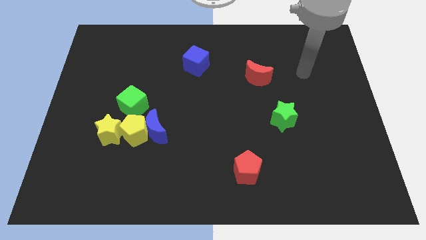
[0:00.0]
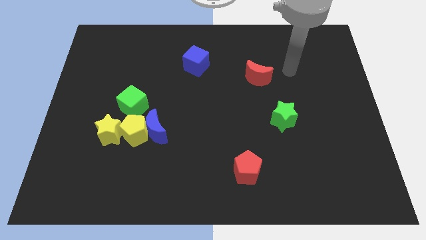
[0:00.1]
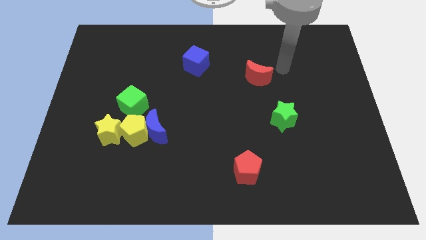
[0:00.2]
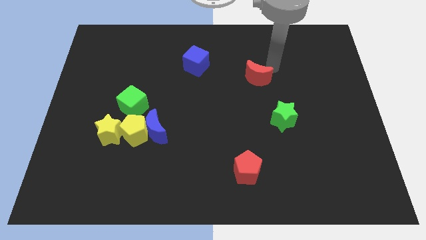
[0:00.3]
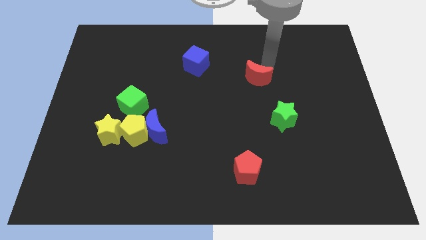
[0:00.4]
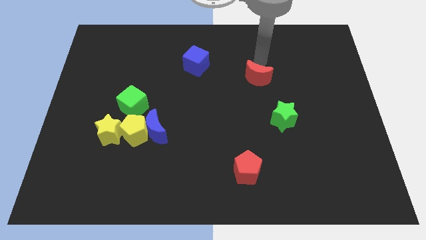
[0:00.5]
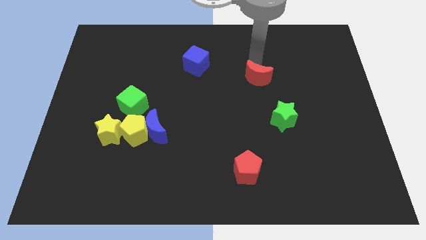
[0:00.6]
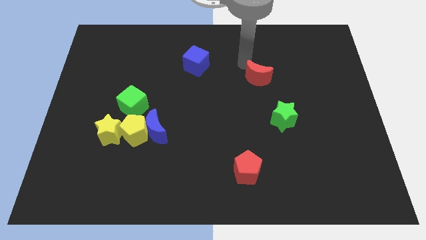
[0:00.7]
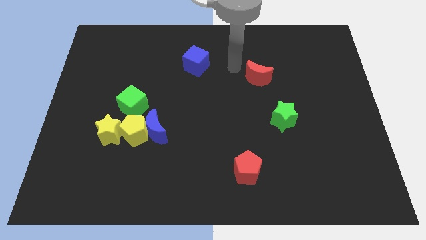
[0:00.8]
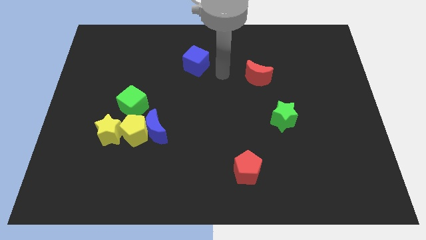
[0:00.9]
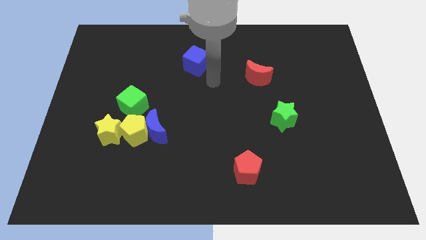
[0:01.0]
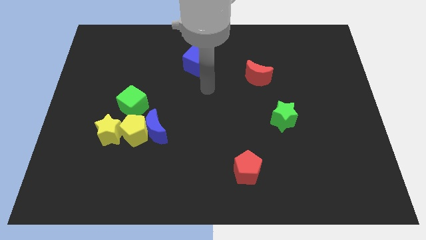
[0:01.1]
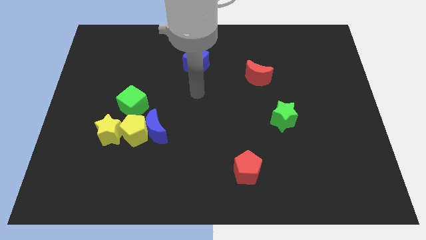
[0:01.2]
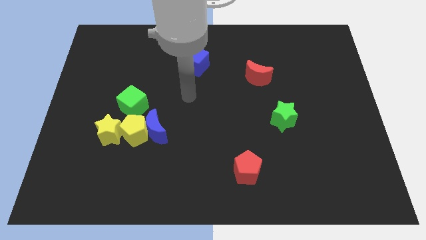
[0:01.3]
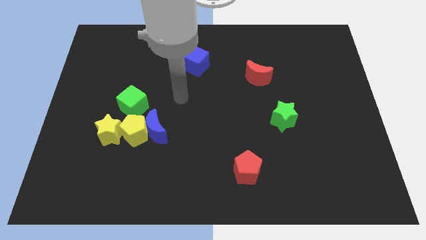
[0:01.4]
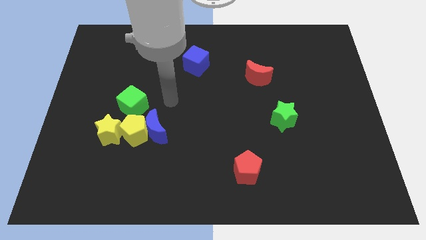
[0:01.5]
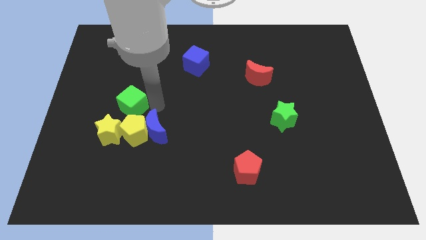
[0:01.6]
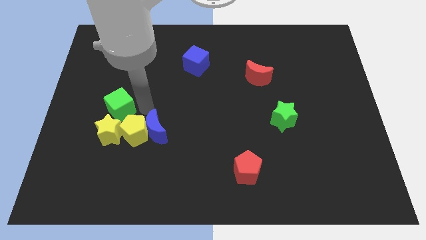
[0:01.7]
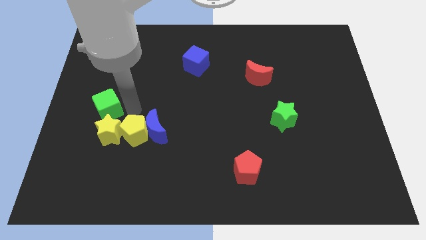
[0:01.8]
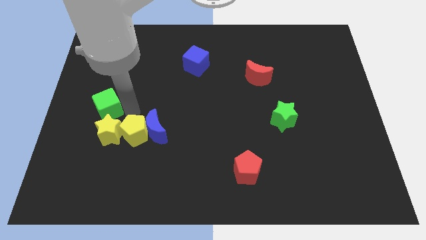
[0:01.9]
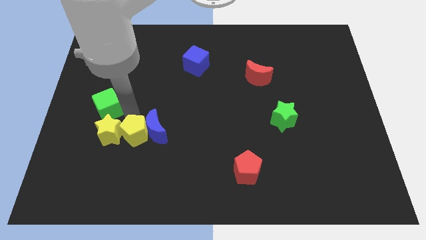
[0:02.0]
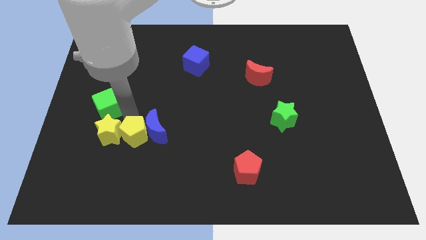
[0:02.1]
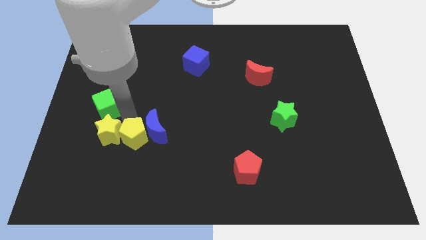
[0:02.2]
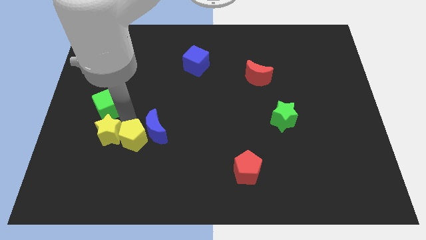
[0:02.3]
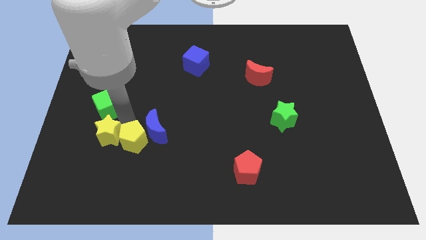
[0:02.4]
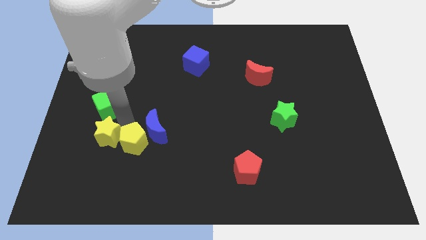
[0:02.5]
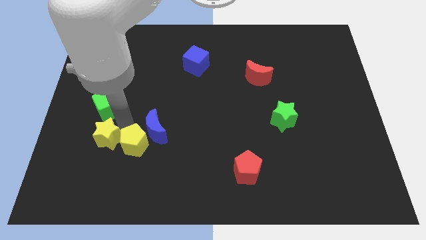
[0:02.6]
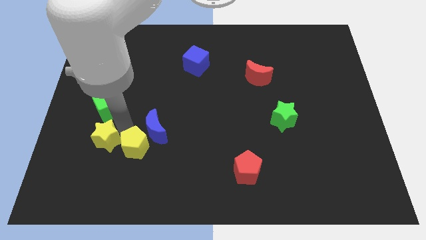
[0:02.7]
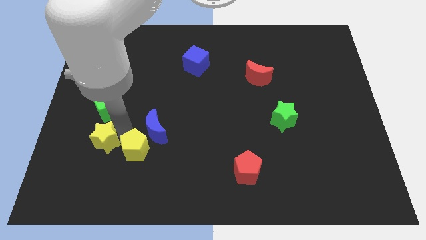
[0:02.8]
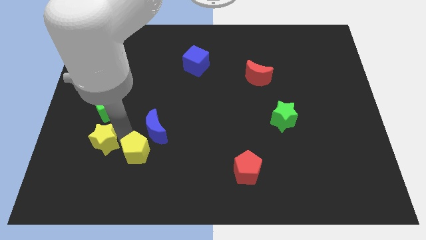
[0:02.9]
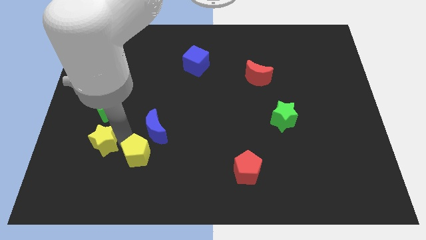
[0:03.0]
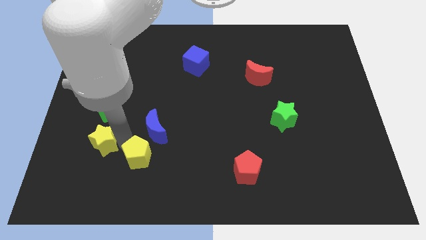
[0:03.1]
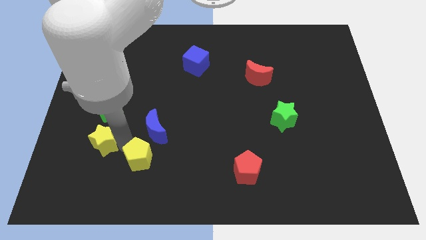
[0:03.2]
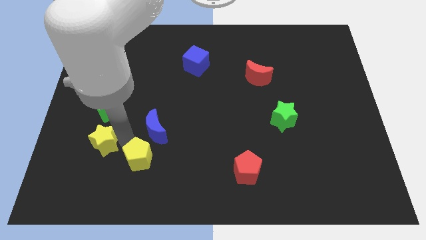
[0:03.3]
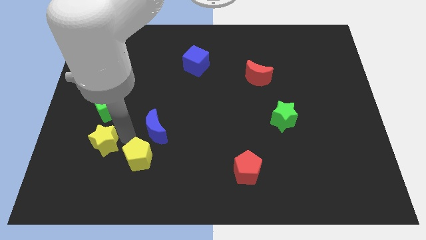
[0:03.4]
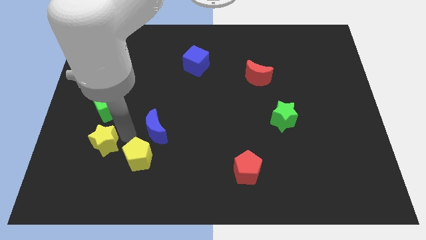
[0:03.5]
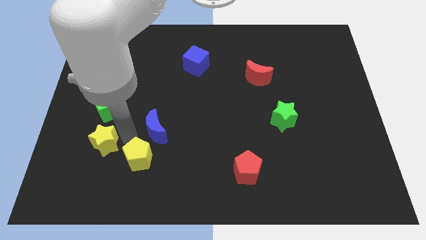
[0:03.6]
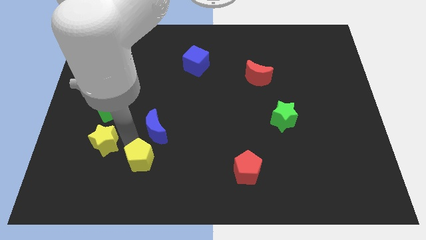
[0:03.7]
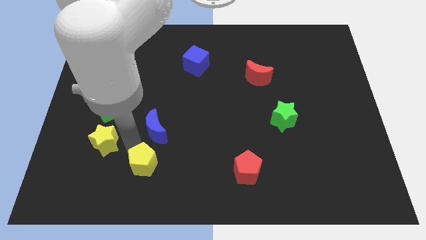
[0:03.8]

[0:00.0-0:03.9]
separate the yellow pentagon from the blue moon, yellow star, and green cube

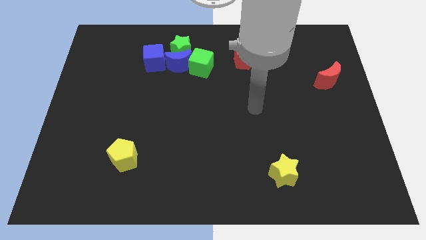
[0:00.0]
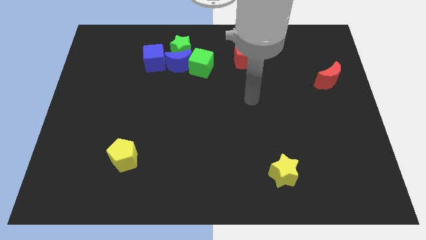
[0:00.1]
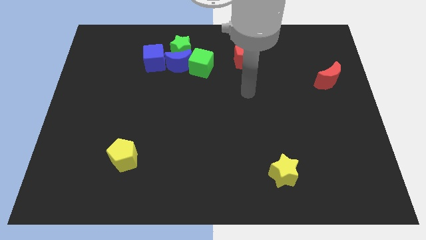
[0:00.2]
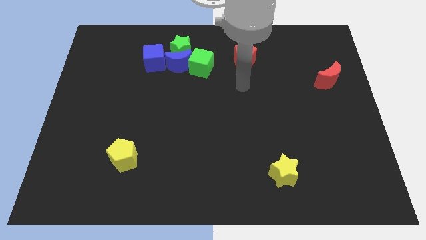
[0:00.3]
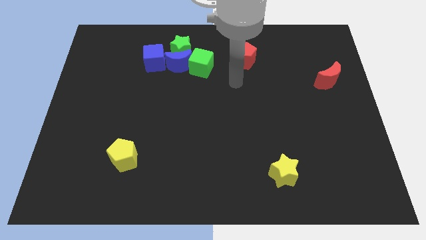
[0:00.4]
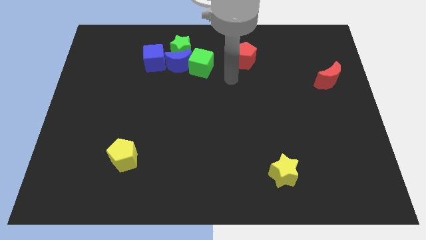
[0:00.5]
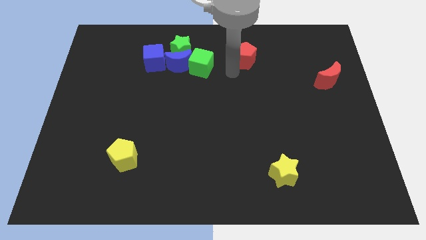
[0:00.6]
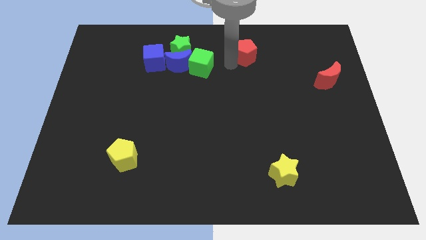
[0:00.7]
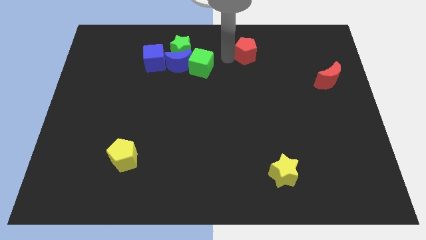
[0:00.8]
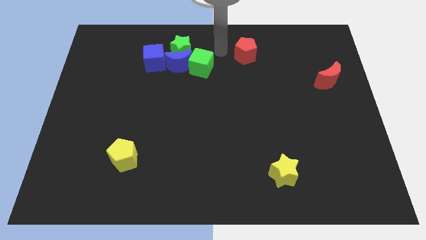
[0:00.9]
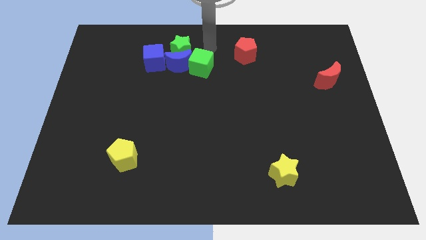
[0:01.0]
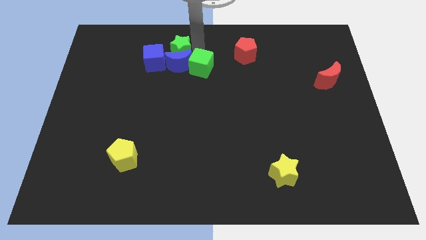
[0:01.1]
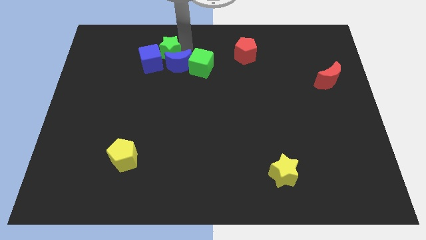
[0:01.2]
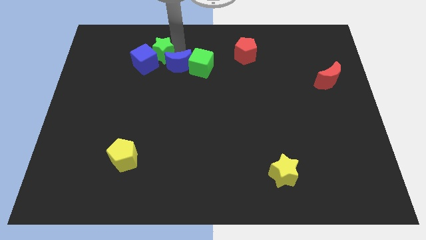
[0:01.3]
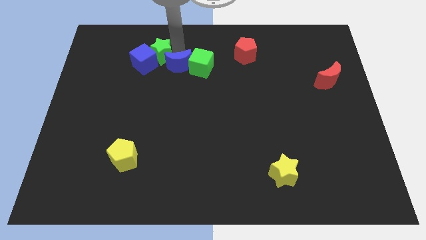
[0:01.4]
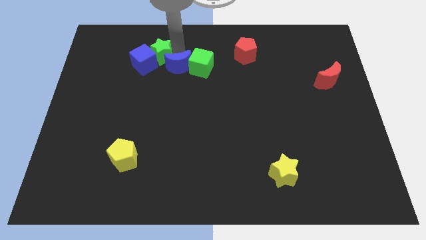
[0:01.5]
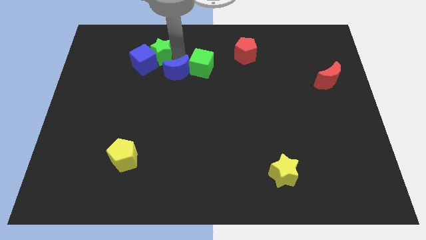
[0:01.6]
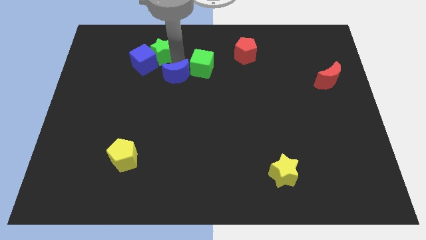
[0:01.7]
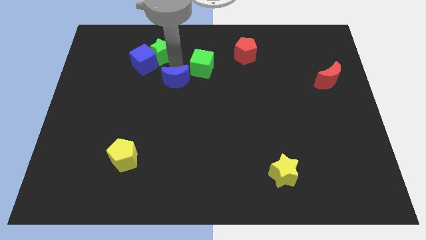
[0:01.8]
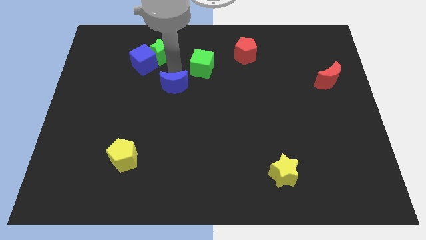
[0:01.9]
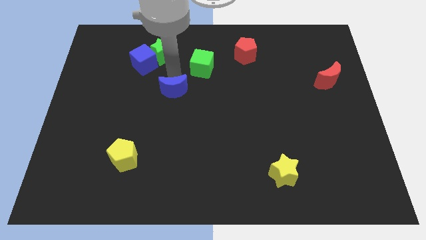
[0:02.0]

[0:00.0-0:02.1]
separate the blue moon from the clump

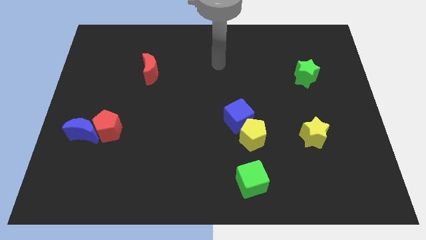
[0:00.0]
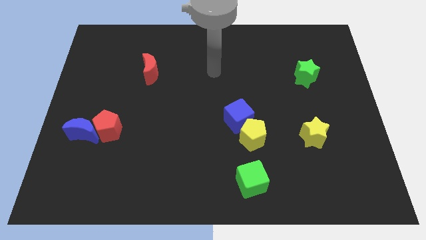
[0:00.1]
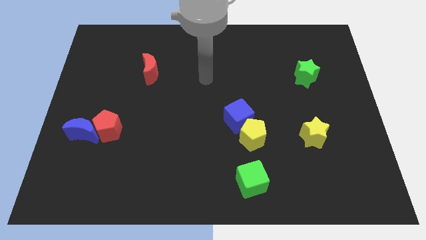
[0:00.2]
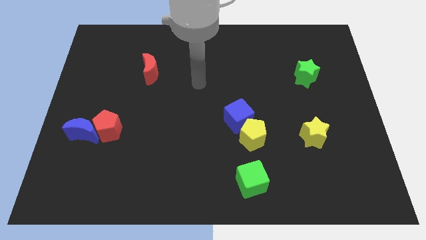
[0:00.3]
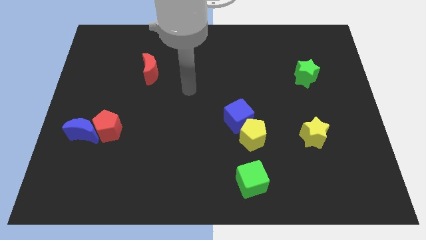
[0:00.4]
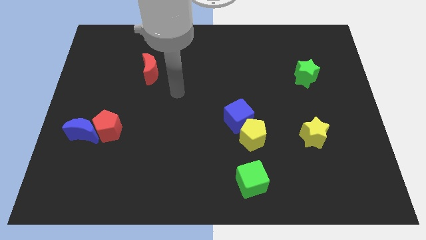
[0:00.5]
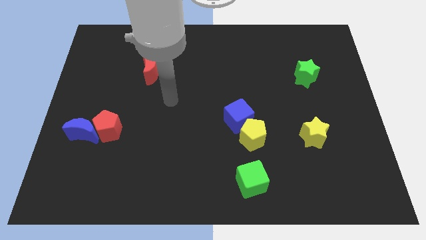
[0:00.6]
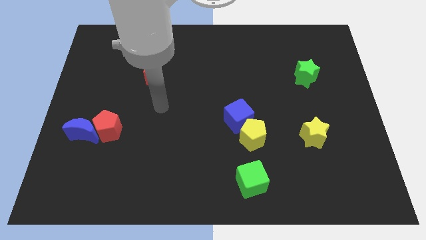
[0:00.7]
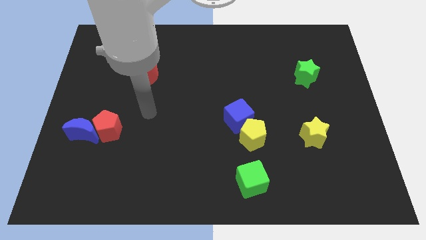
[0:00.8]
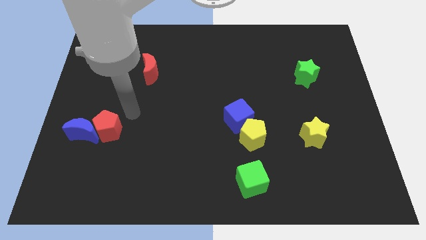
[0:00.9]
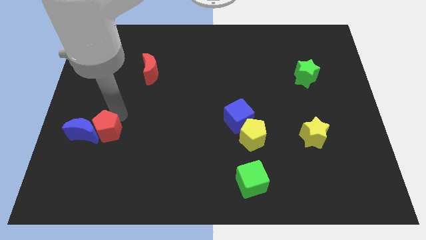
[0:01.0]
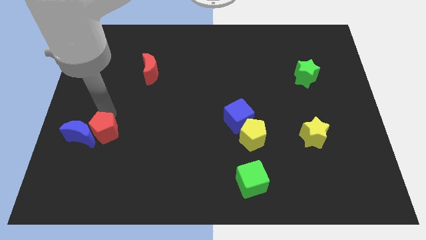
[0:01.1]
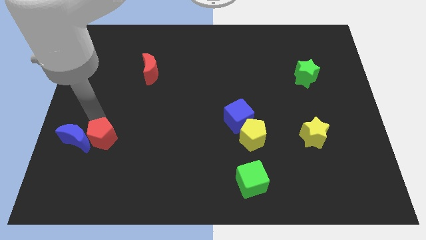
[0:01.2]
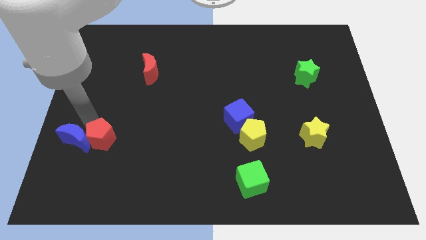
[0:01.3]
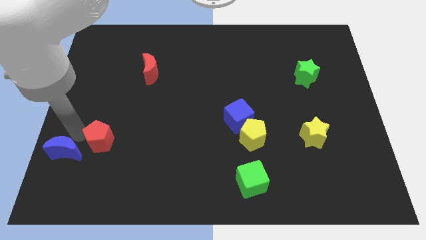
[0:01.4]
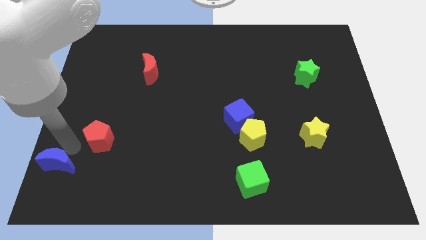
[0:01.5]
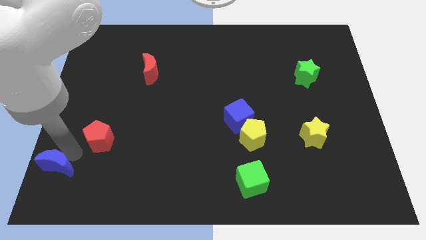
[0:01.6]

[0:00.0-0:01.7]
separate the red pentagon from the blue moon

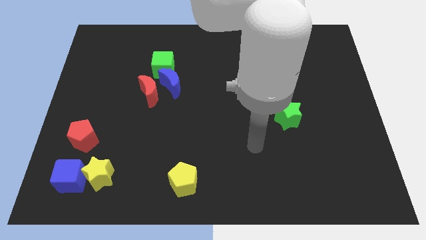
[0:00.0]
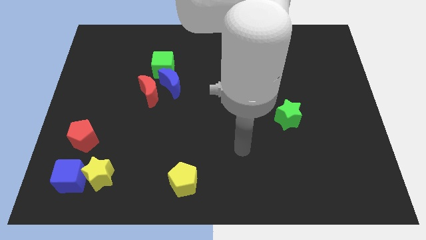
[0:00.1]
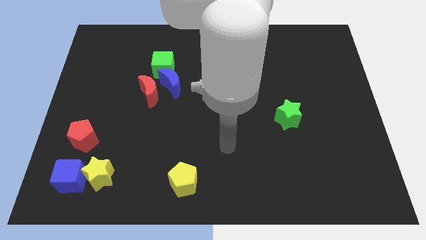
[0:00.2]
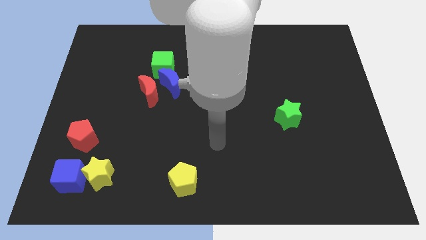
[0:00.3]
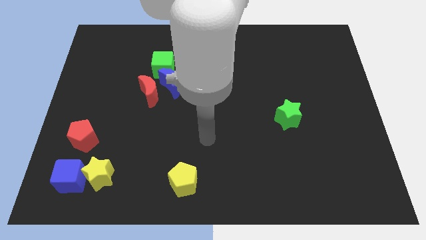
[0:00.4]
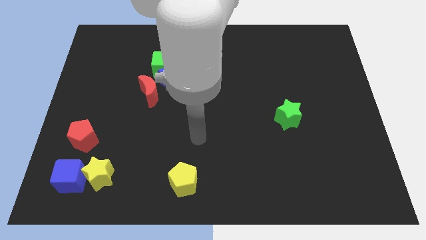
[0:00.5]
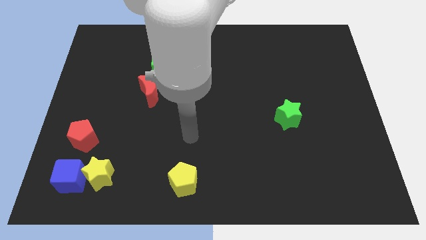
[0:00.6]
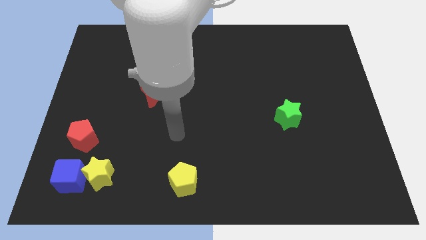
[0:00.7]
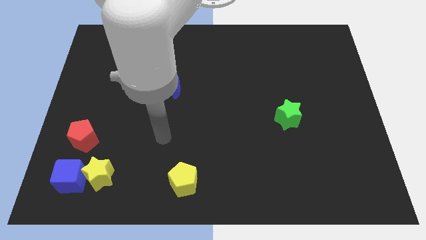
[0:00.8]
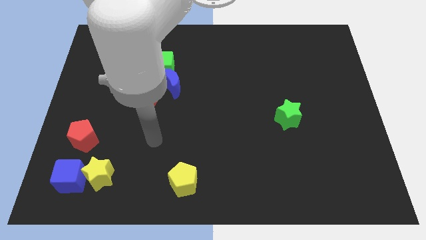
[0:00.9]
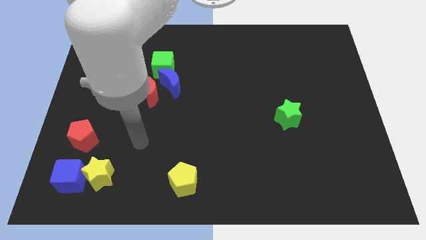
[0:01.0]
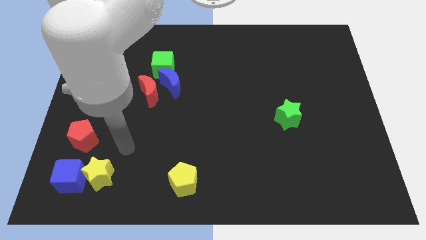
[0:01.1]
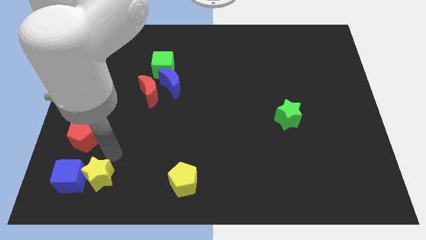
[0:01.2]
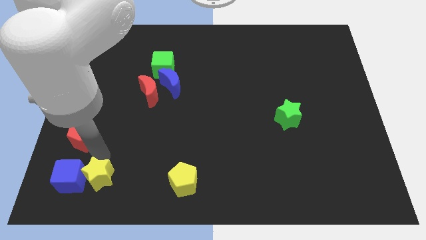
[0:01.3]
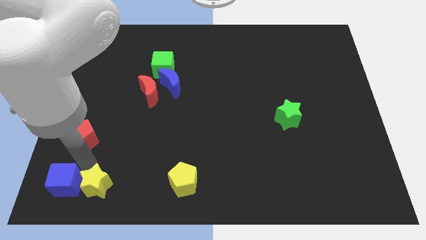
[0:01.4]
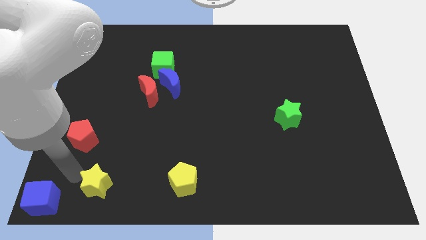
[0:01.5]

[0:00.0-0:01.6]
pull the yellow star apart from the blue cube
